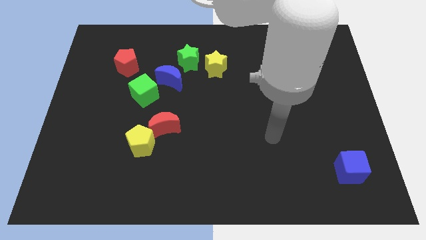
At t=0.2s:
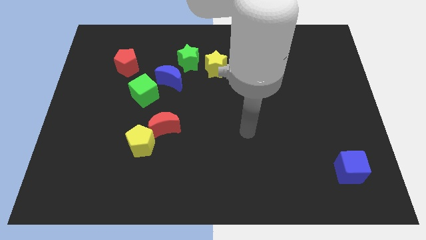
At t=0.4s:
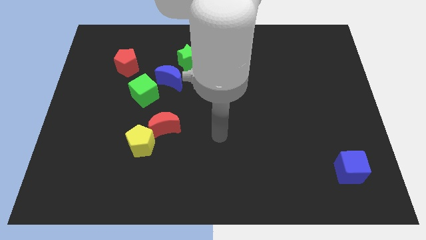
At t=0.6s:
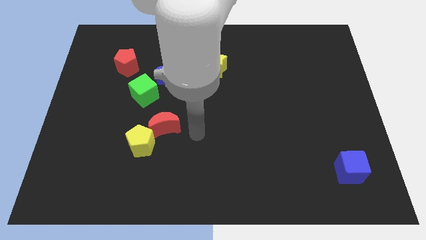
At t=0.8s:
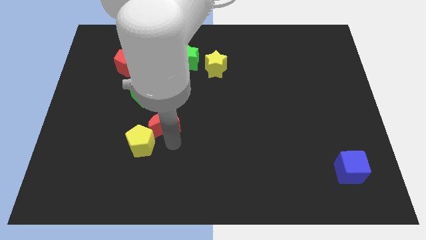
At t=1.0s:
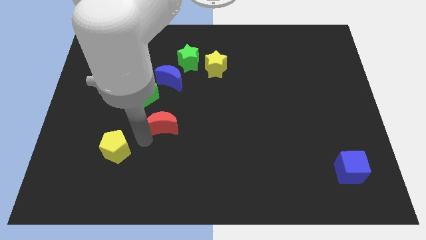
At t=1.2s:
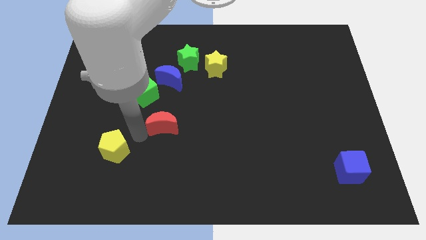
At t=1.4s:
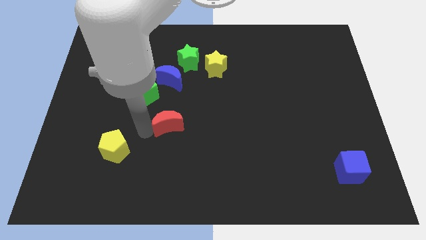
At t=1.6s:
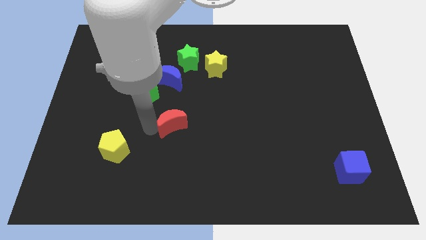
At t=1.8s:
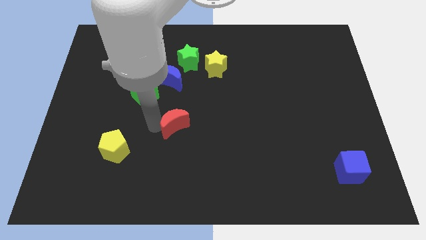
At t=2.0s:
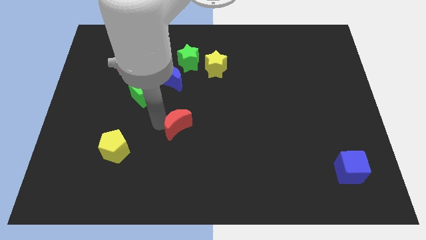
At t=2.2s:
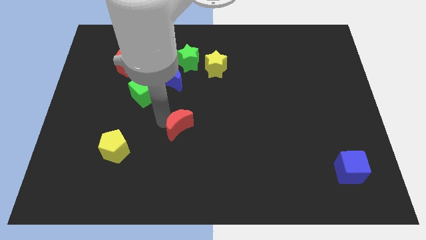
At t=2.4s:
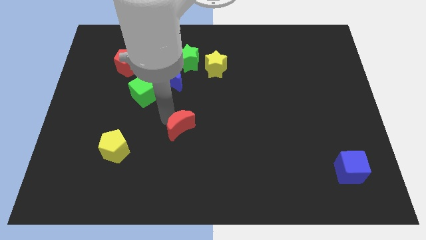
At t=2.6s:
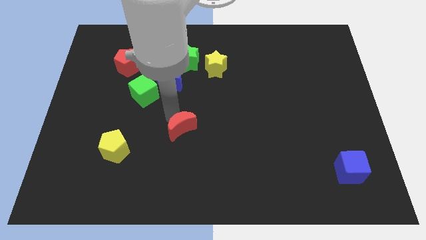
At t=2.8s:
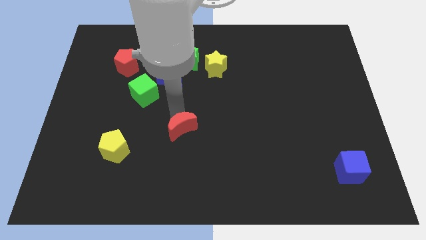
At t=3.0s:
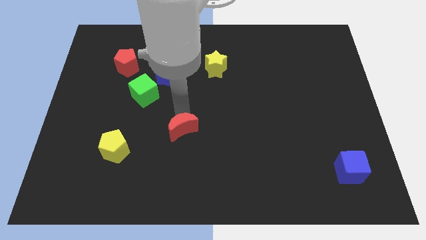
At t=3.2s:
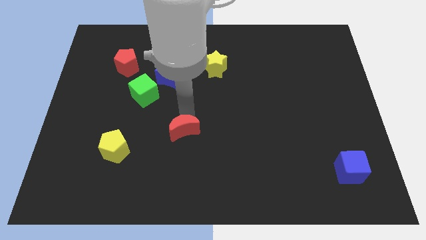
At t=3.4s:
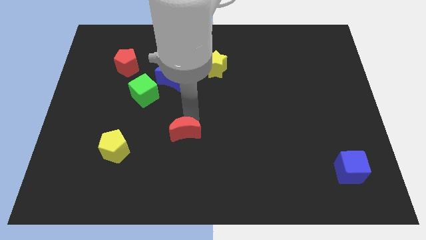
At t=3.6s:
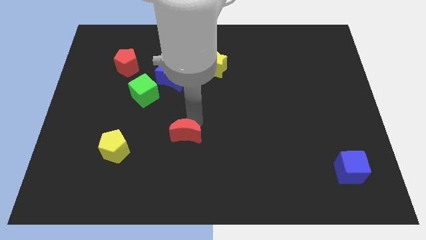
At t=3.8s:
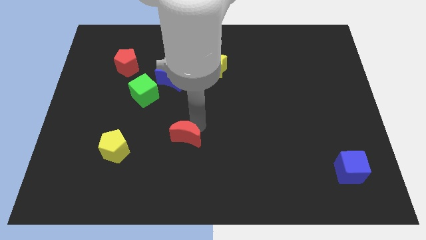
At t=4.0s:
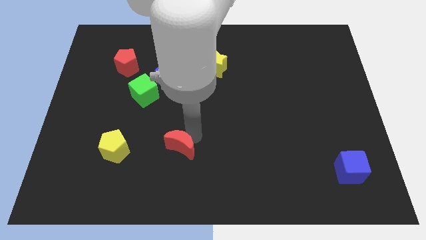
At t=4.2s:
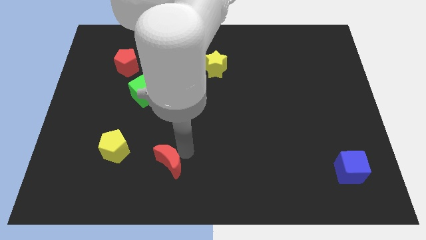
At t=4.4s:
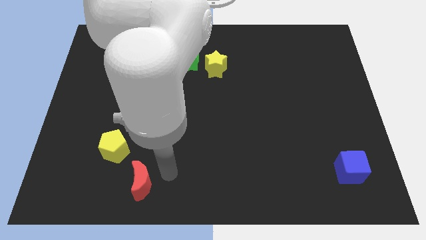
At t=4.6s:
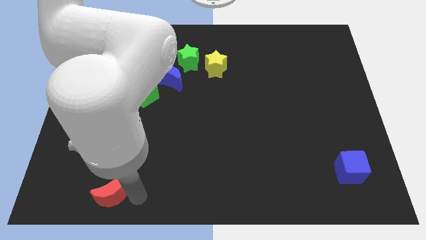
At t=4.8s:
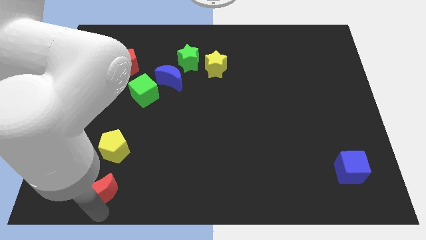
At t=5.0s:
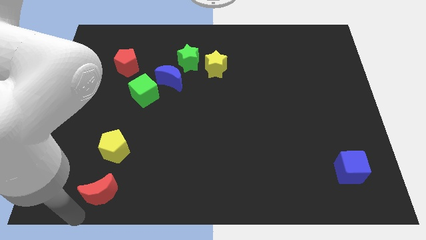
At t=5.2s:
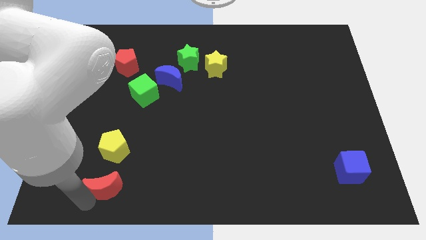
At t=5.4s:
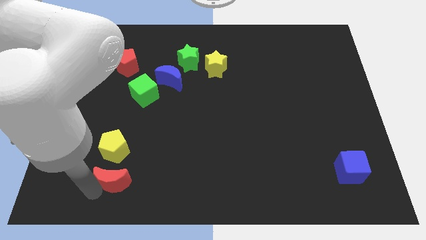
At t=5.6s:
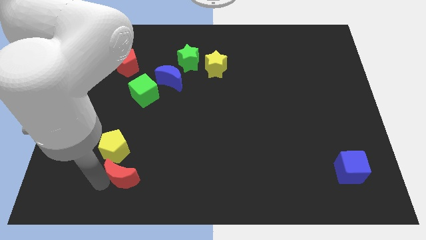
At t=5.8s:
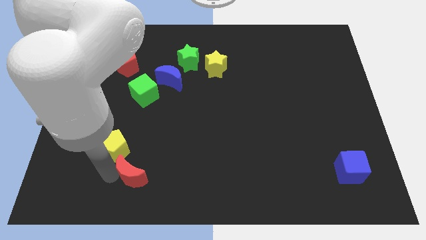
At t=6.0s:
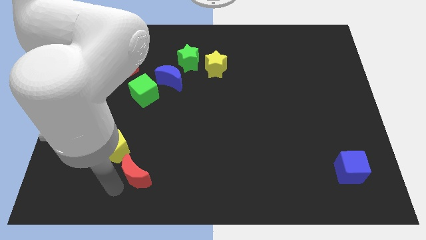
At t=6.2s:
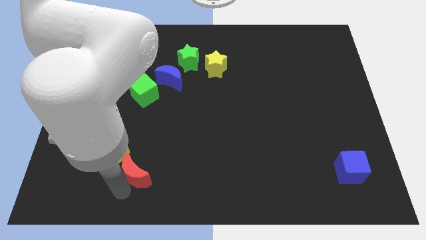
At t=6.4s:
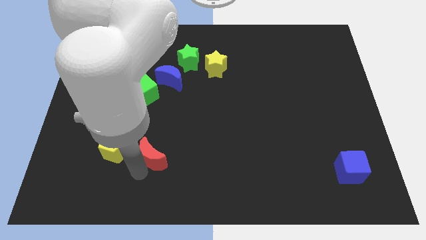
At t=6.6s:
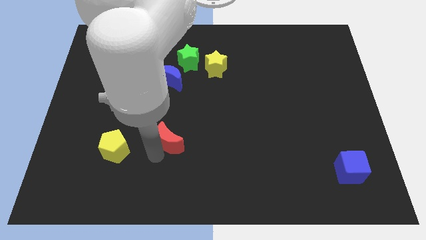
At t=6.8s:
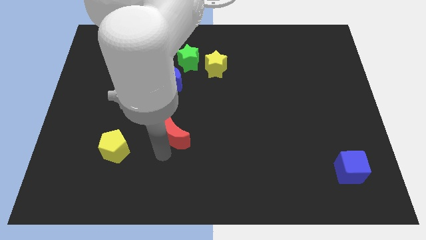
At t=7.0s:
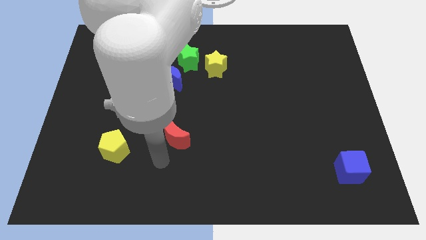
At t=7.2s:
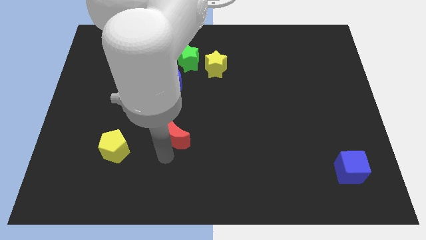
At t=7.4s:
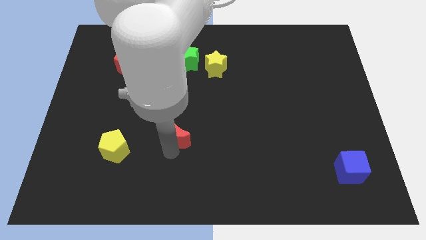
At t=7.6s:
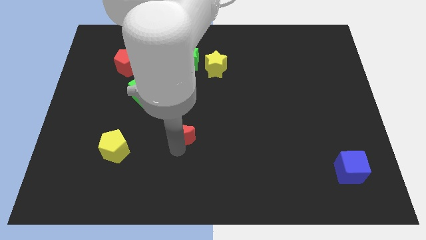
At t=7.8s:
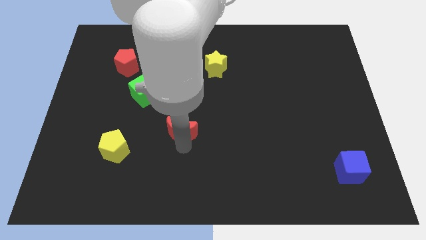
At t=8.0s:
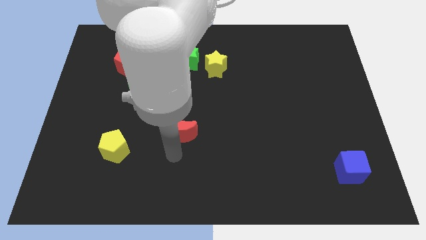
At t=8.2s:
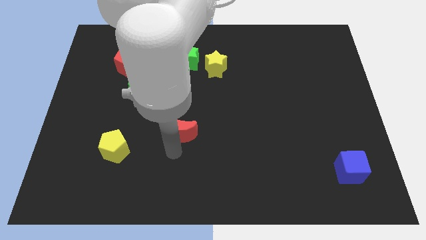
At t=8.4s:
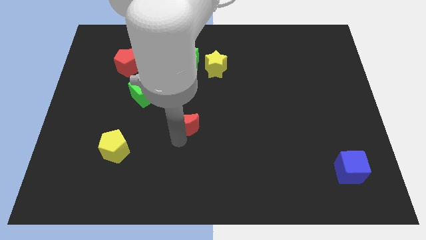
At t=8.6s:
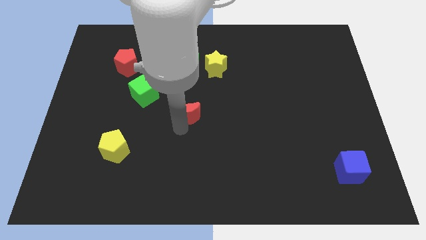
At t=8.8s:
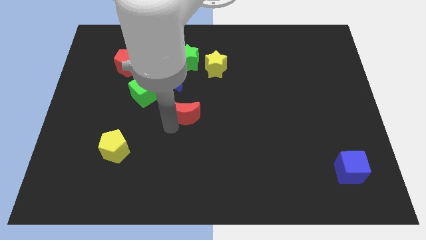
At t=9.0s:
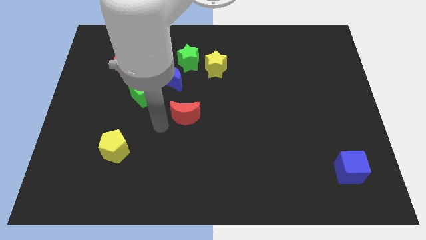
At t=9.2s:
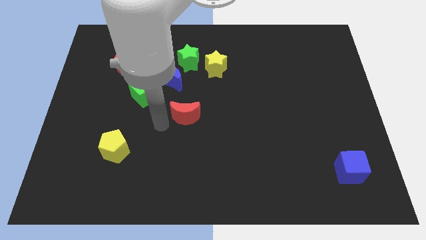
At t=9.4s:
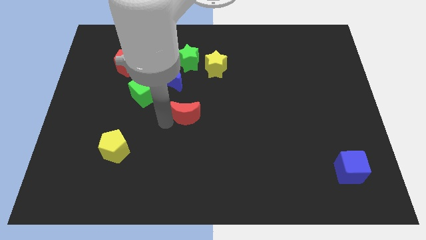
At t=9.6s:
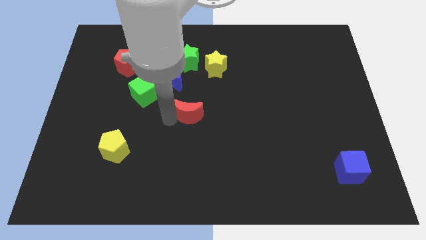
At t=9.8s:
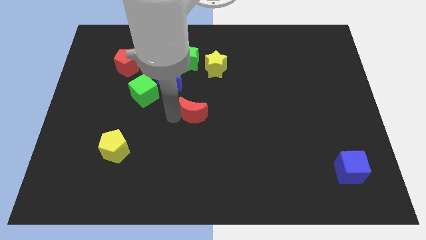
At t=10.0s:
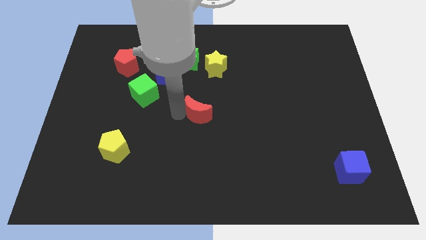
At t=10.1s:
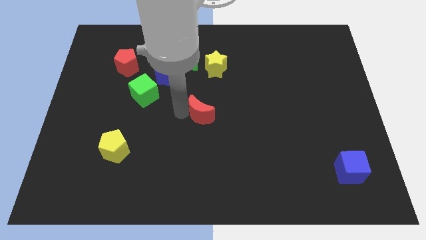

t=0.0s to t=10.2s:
push the red moon to the bottom of the yellow star

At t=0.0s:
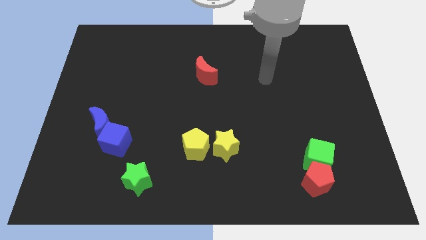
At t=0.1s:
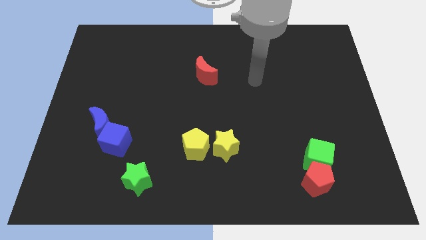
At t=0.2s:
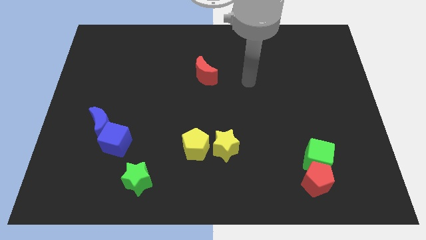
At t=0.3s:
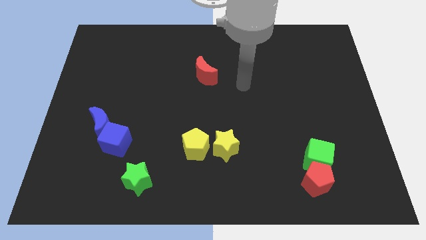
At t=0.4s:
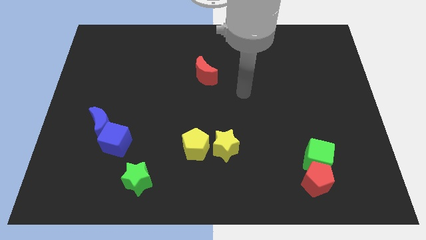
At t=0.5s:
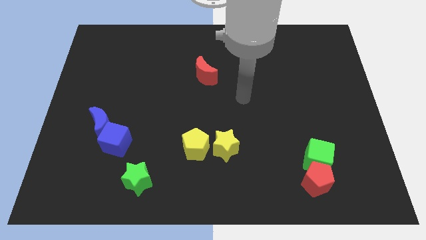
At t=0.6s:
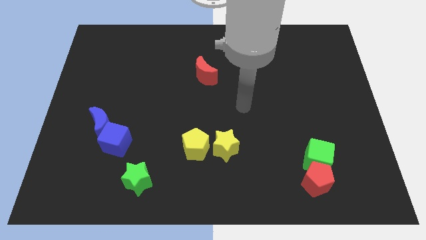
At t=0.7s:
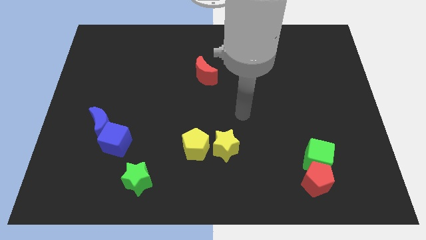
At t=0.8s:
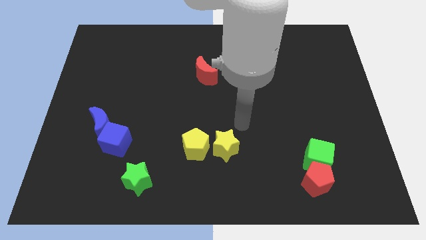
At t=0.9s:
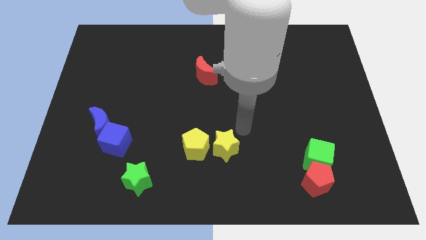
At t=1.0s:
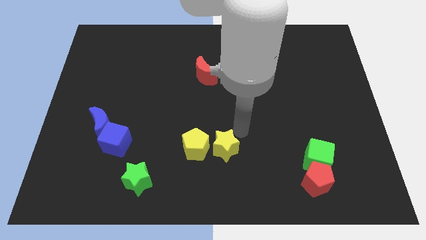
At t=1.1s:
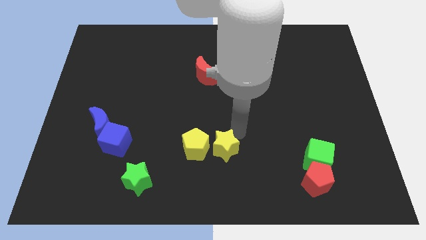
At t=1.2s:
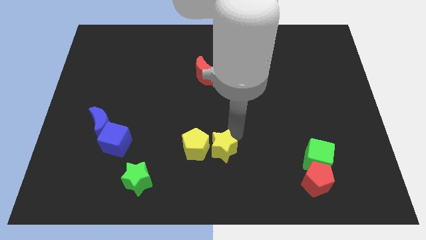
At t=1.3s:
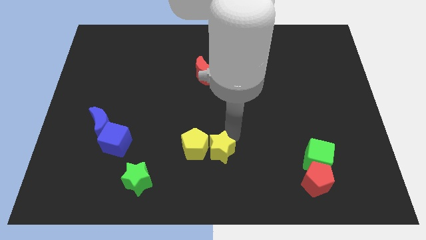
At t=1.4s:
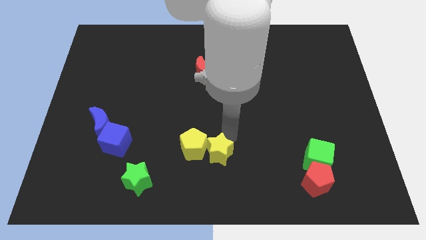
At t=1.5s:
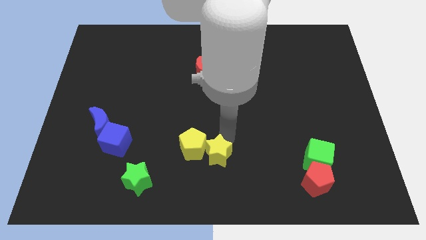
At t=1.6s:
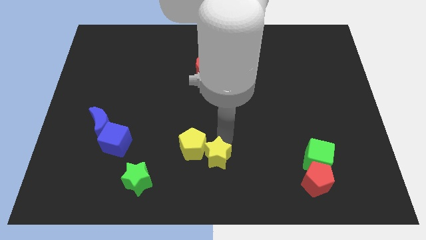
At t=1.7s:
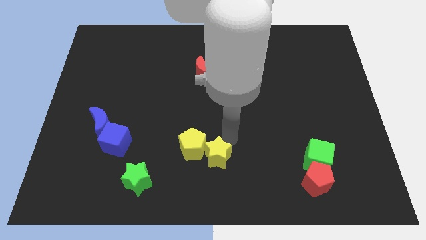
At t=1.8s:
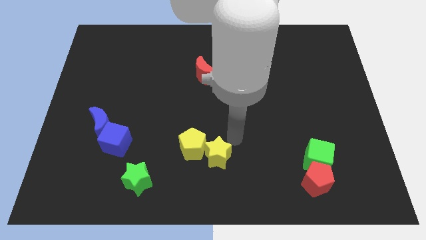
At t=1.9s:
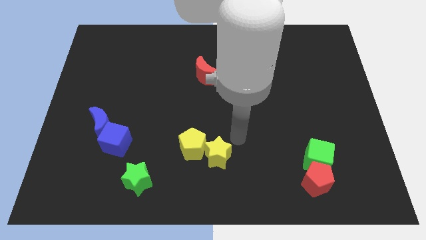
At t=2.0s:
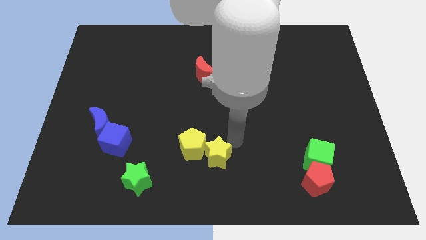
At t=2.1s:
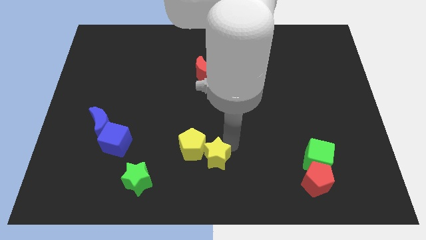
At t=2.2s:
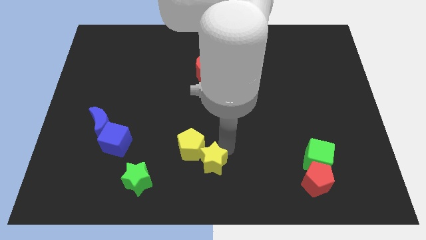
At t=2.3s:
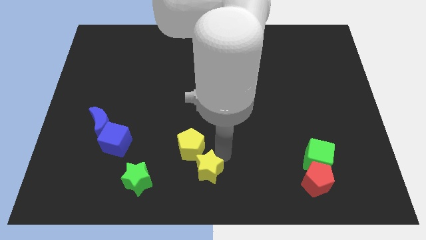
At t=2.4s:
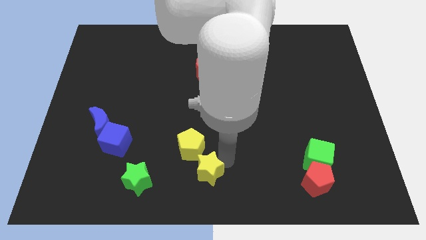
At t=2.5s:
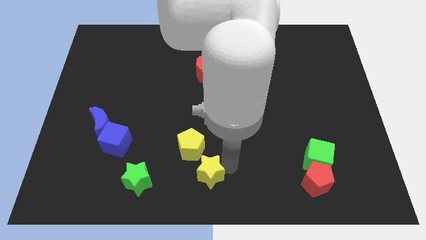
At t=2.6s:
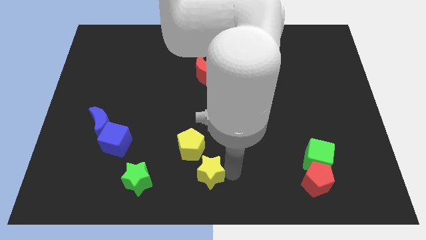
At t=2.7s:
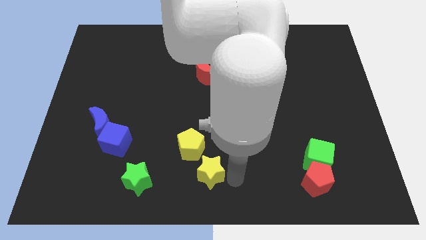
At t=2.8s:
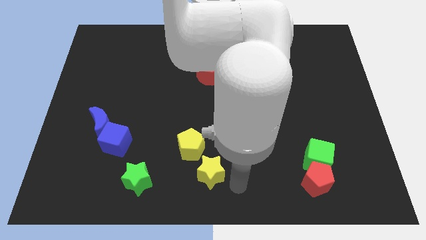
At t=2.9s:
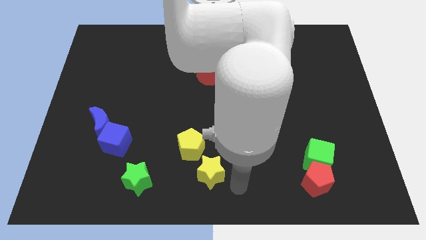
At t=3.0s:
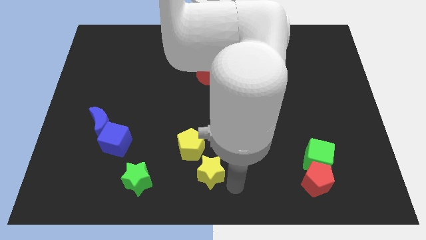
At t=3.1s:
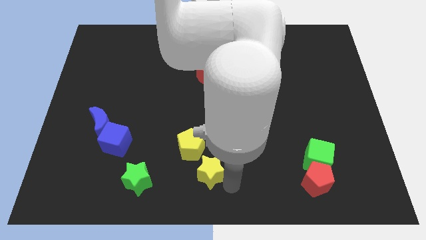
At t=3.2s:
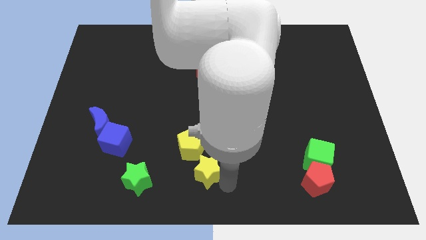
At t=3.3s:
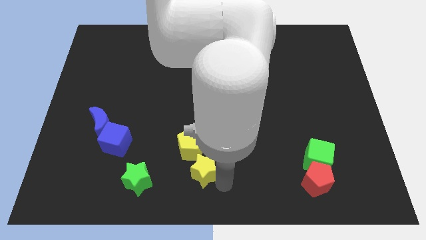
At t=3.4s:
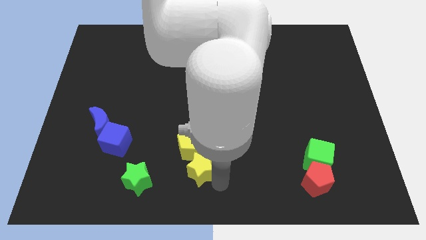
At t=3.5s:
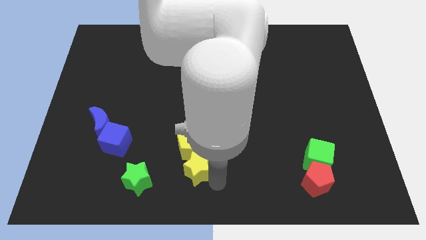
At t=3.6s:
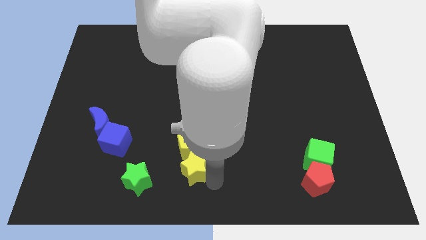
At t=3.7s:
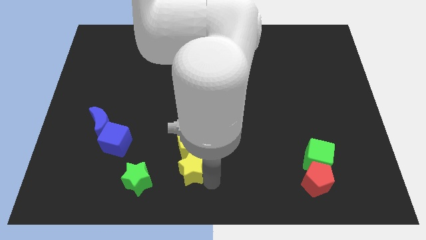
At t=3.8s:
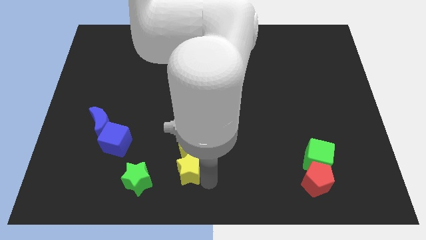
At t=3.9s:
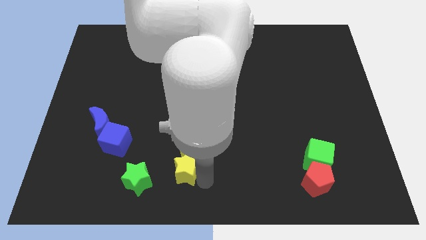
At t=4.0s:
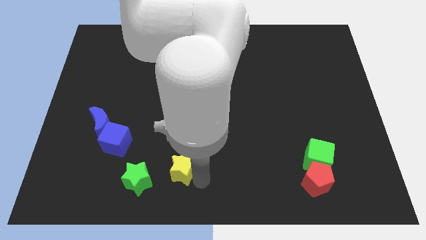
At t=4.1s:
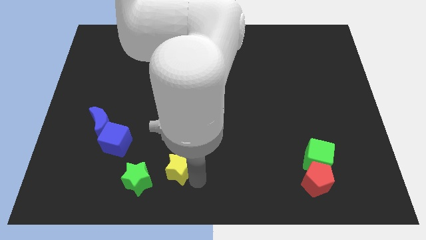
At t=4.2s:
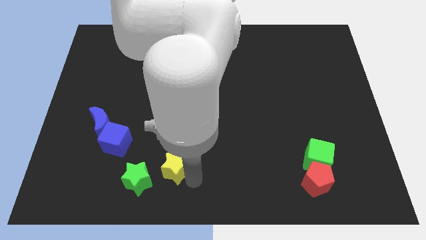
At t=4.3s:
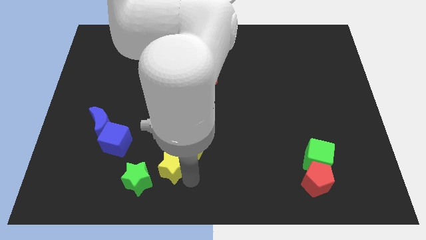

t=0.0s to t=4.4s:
move the yellow star left of the yellow pentagon
